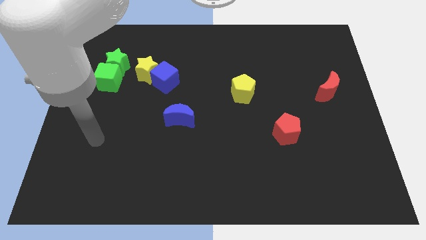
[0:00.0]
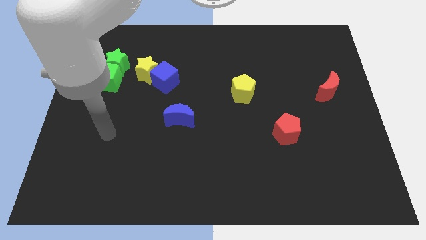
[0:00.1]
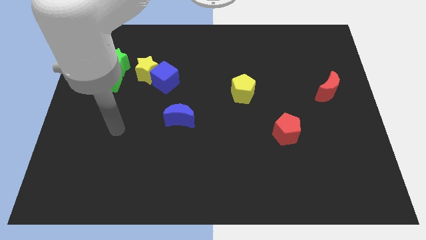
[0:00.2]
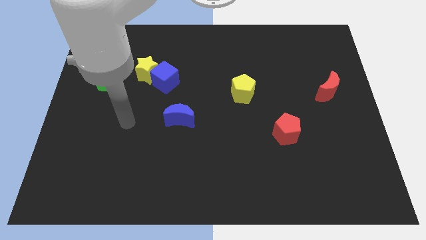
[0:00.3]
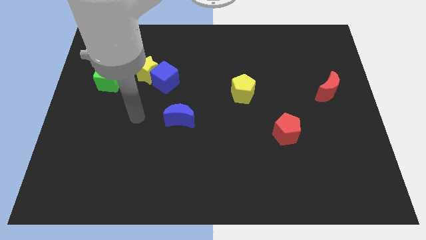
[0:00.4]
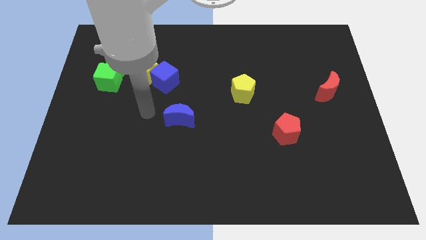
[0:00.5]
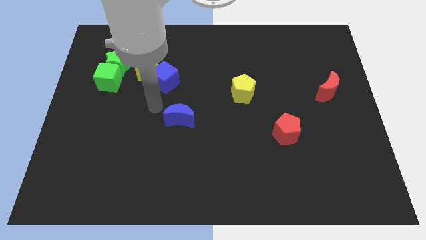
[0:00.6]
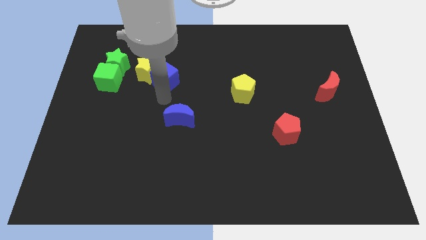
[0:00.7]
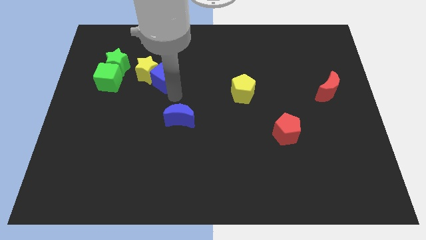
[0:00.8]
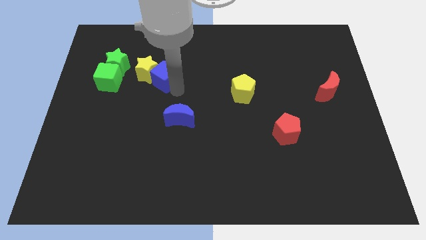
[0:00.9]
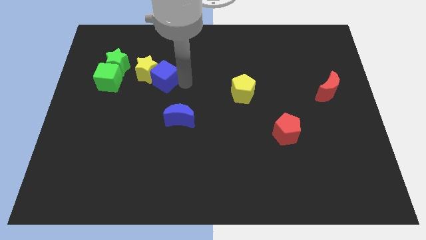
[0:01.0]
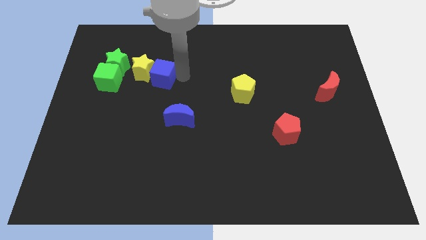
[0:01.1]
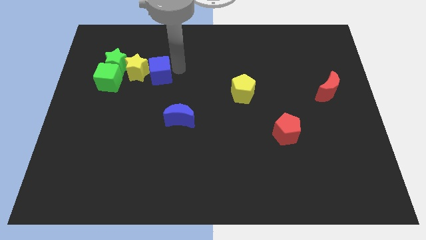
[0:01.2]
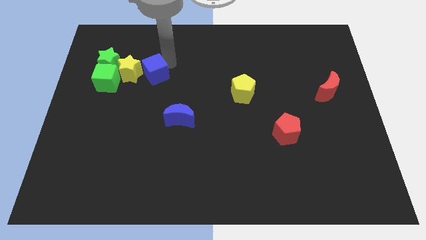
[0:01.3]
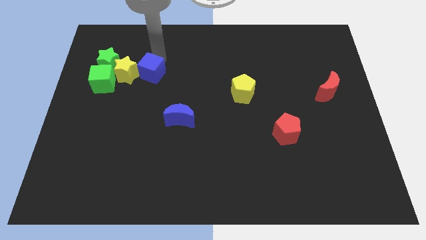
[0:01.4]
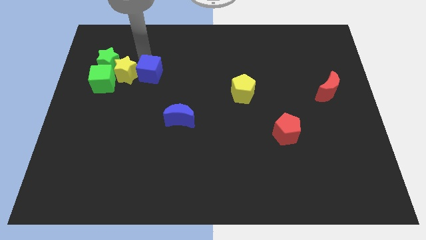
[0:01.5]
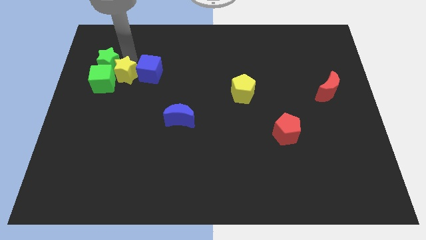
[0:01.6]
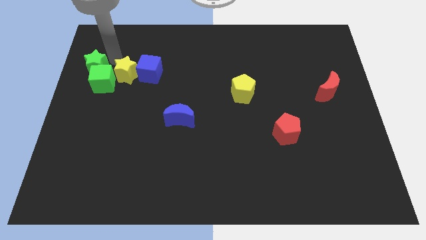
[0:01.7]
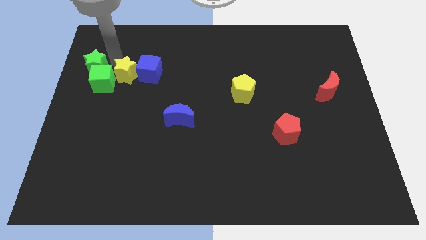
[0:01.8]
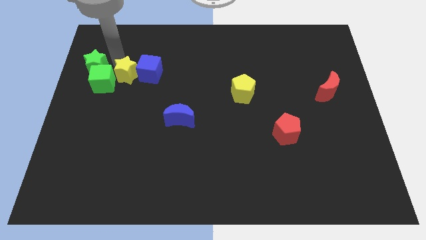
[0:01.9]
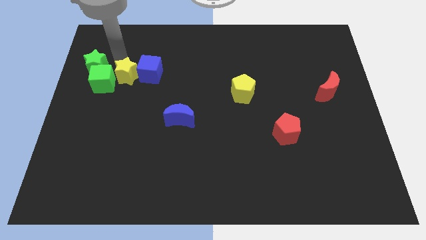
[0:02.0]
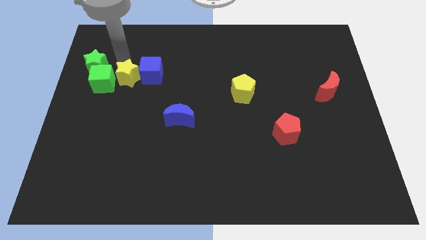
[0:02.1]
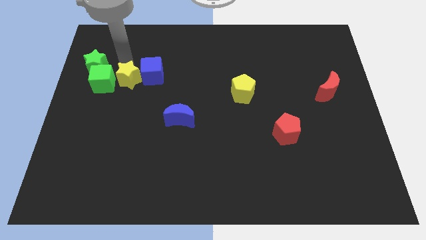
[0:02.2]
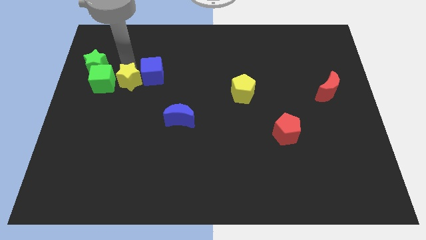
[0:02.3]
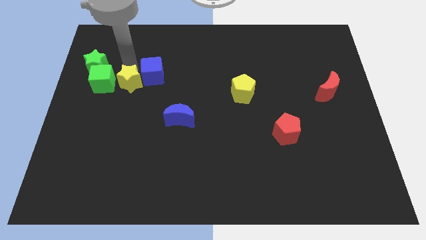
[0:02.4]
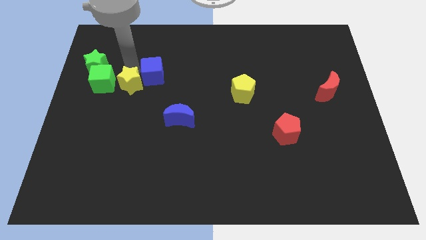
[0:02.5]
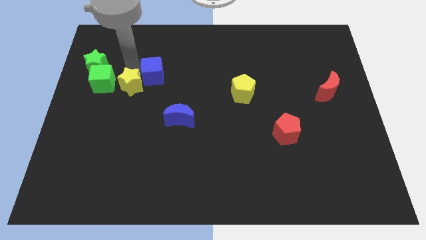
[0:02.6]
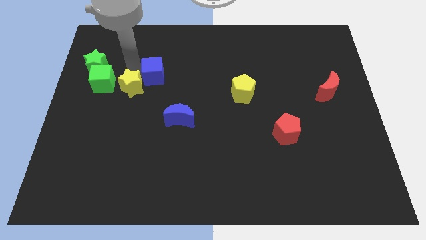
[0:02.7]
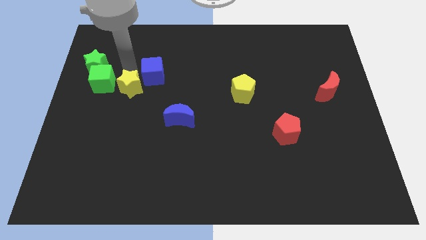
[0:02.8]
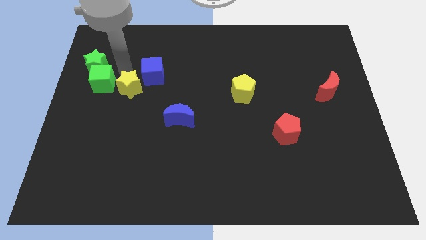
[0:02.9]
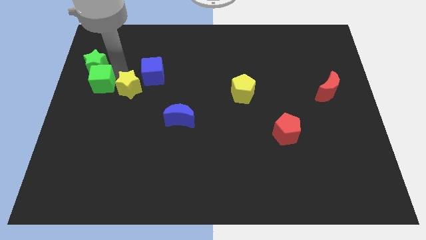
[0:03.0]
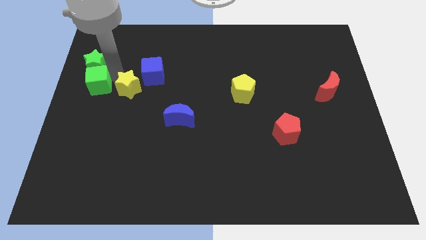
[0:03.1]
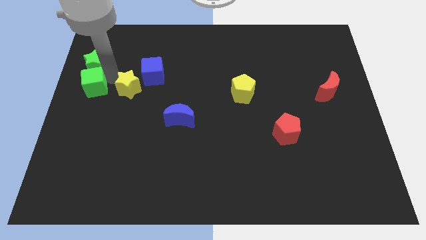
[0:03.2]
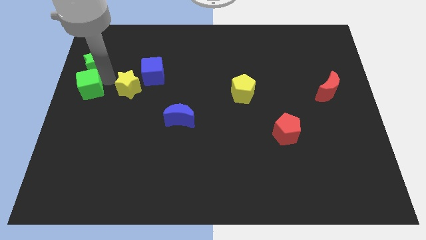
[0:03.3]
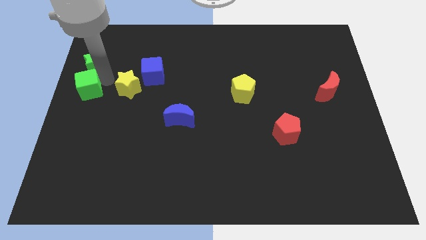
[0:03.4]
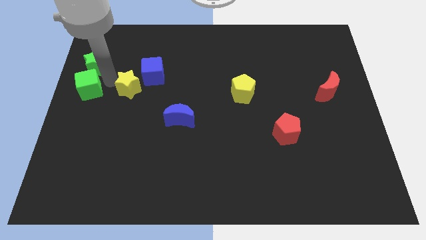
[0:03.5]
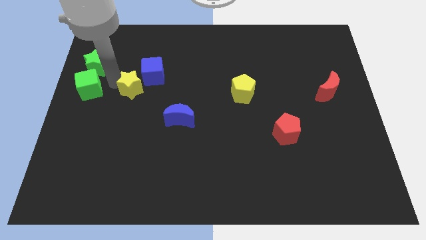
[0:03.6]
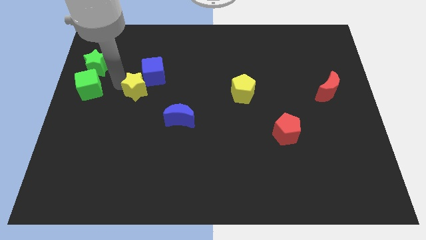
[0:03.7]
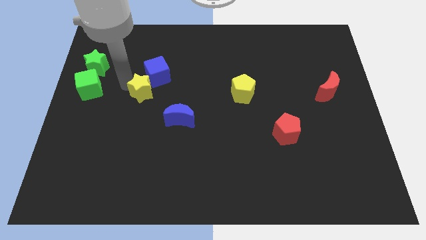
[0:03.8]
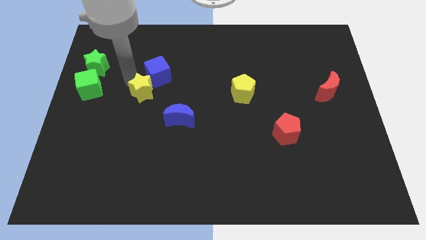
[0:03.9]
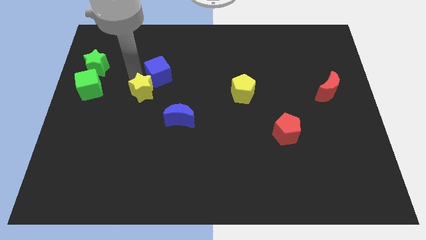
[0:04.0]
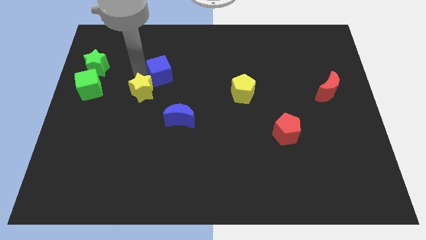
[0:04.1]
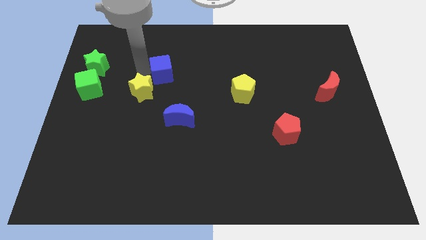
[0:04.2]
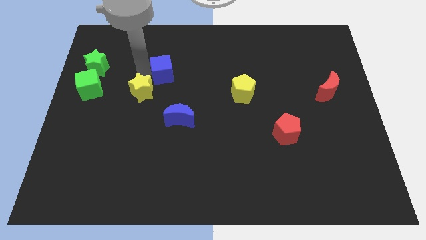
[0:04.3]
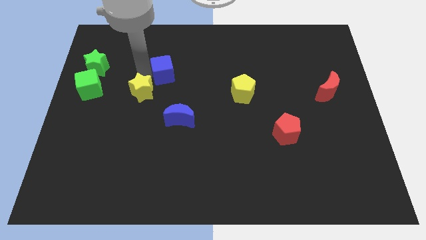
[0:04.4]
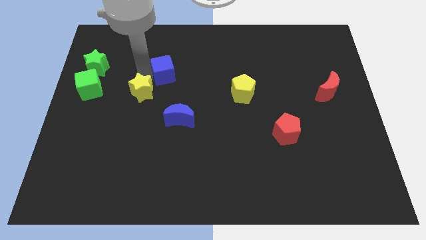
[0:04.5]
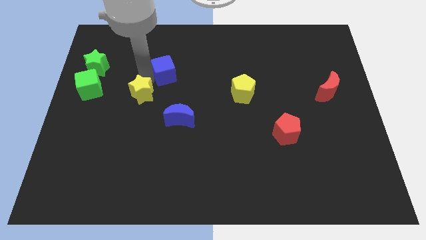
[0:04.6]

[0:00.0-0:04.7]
slightly move the yellow star downwards

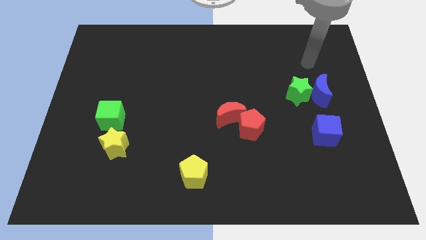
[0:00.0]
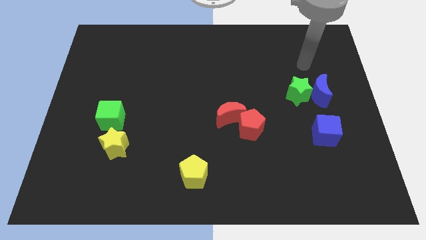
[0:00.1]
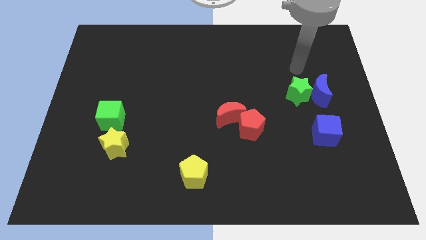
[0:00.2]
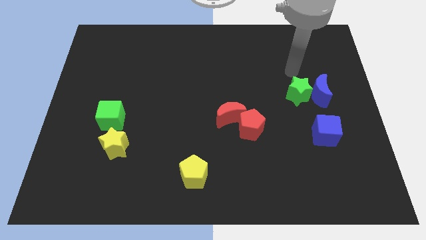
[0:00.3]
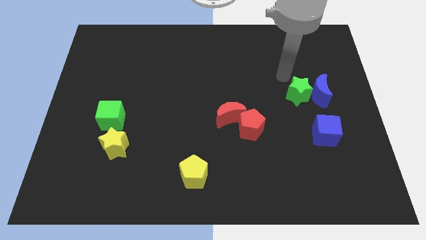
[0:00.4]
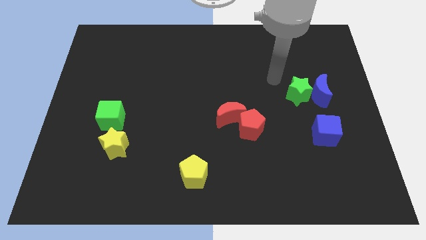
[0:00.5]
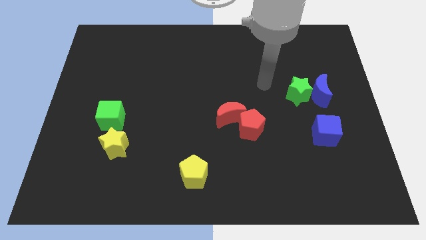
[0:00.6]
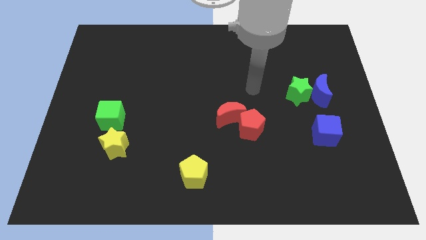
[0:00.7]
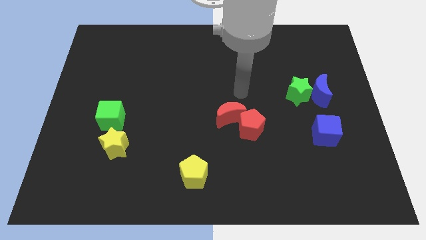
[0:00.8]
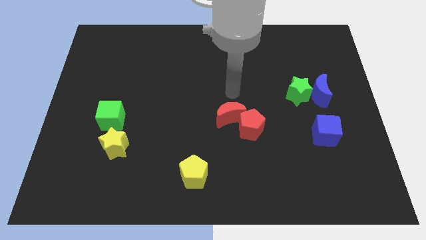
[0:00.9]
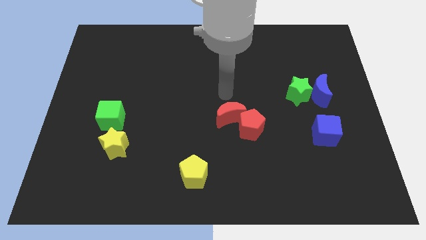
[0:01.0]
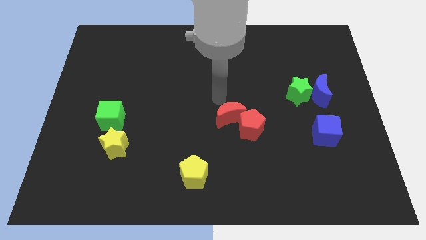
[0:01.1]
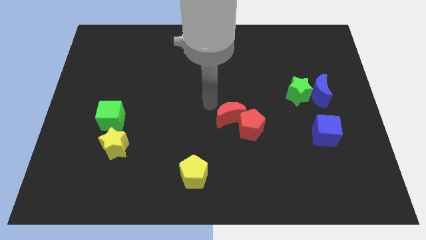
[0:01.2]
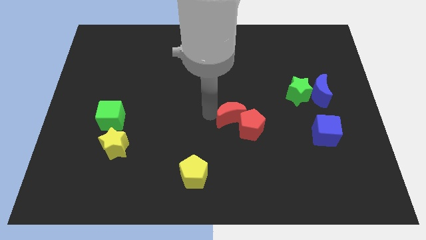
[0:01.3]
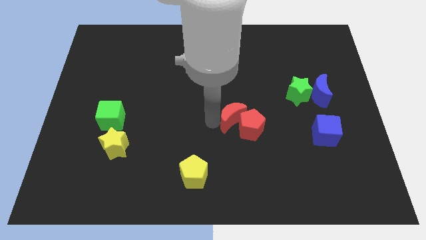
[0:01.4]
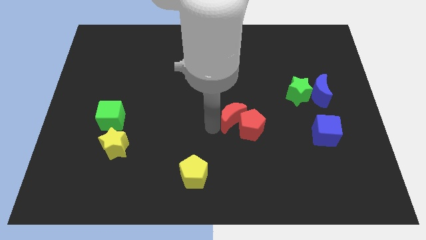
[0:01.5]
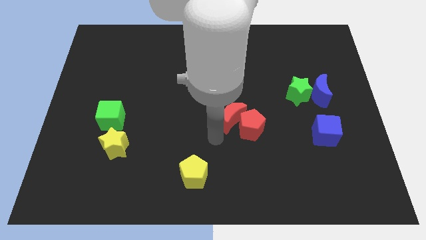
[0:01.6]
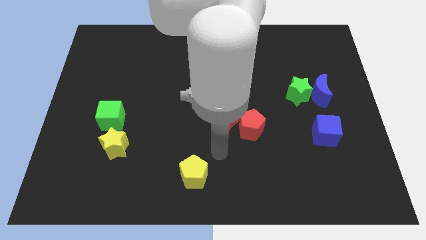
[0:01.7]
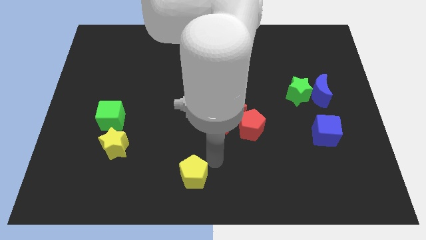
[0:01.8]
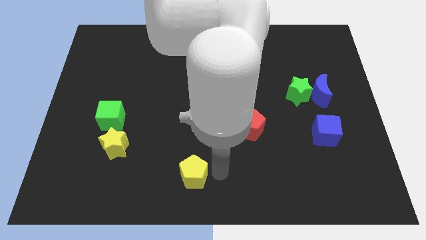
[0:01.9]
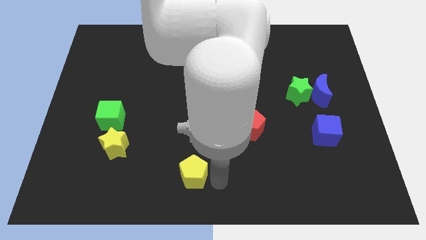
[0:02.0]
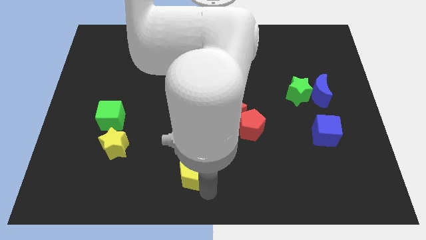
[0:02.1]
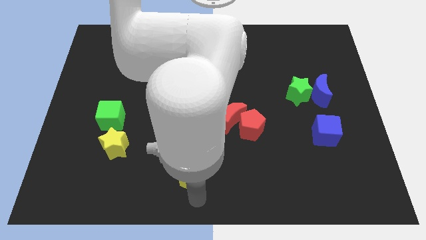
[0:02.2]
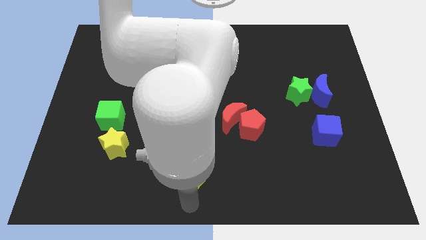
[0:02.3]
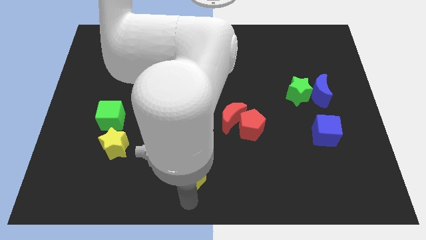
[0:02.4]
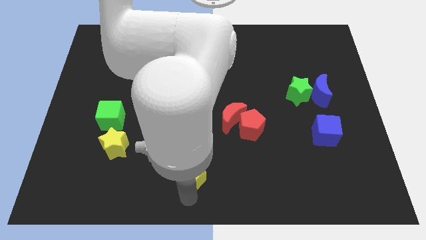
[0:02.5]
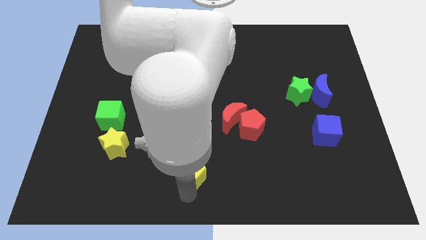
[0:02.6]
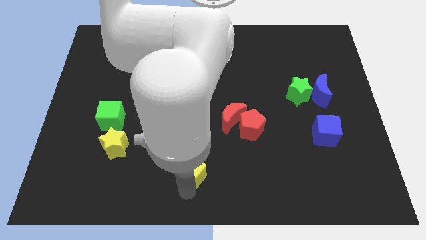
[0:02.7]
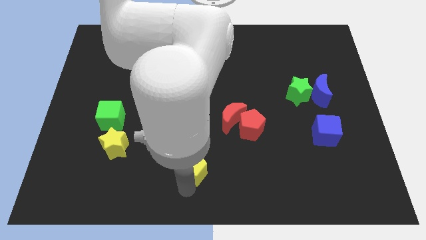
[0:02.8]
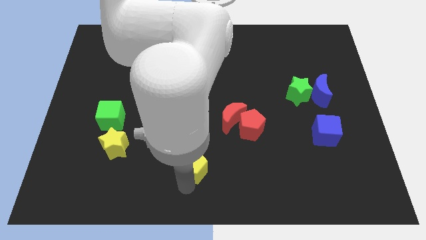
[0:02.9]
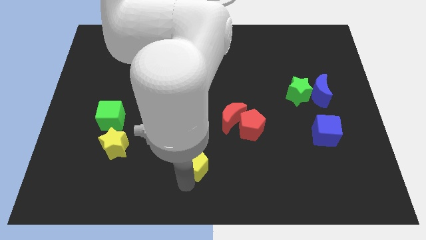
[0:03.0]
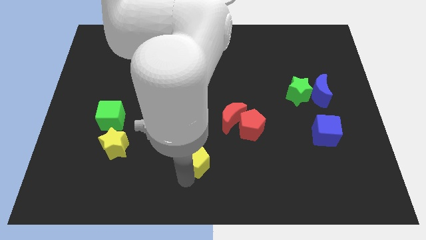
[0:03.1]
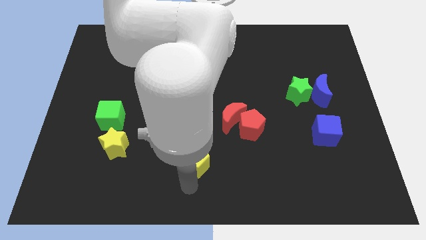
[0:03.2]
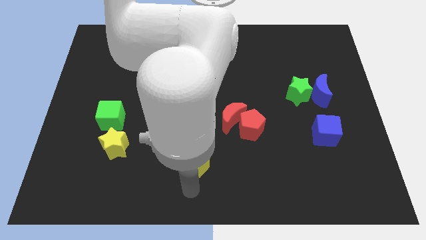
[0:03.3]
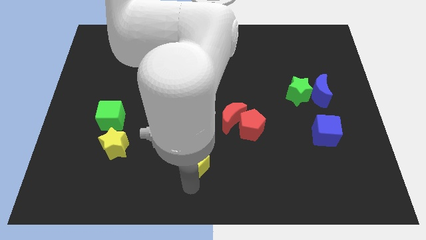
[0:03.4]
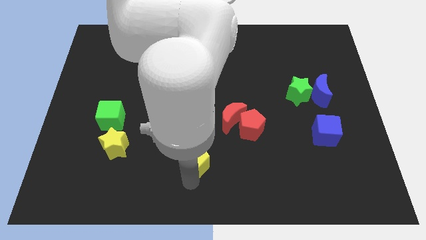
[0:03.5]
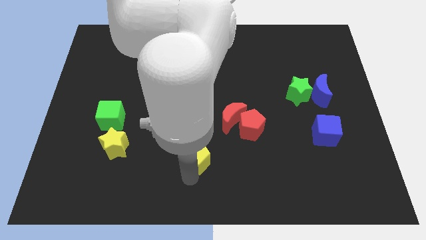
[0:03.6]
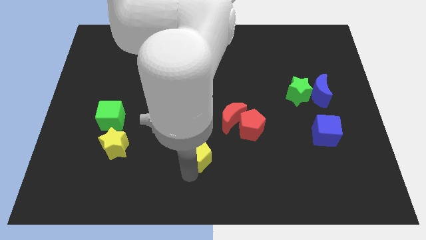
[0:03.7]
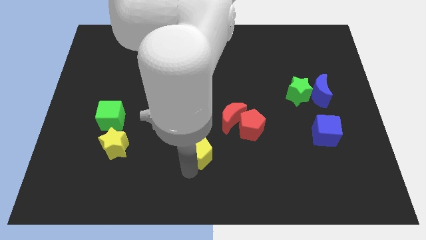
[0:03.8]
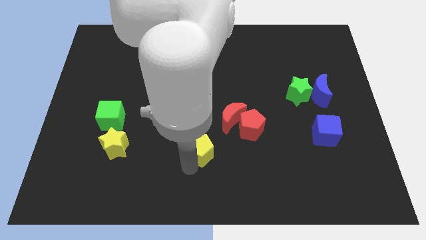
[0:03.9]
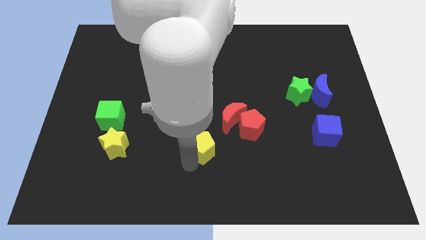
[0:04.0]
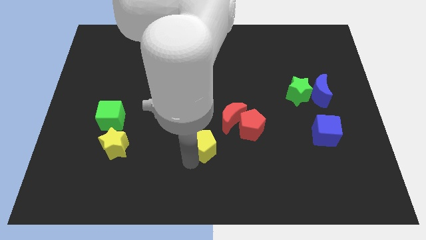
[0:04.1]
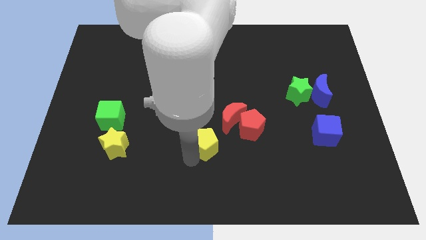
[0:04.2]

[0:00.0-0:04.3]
slide the yellow pentagon upwards slightly
